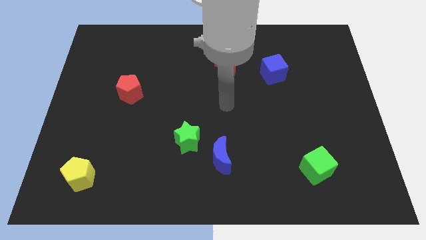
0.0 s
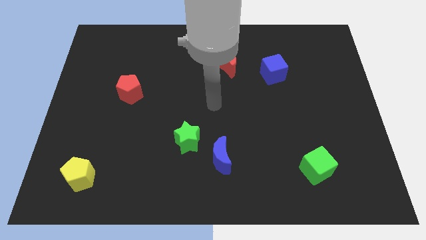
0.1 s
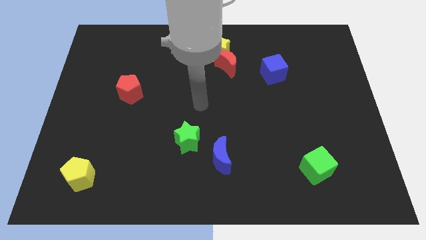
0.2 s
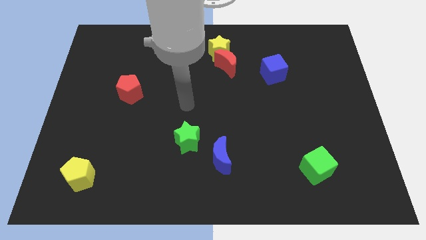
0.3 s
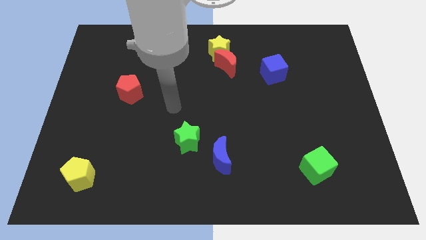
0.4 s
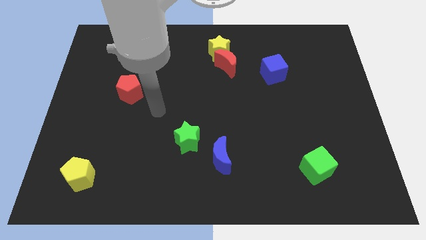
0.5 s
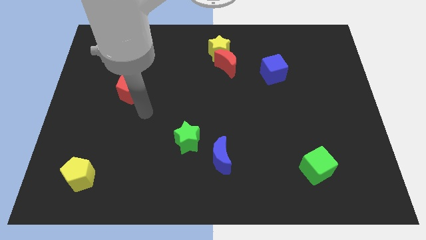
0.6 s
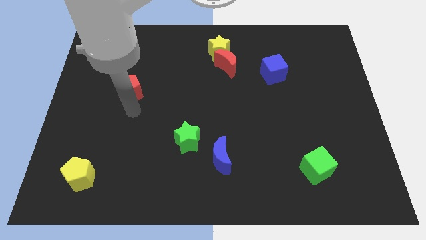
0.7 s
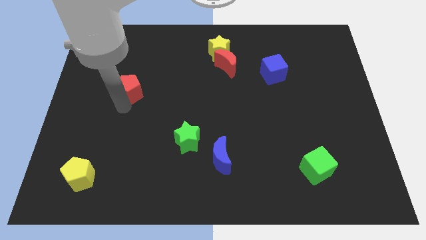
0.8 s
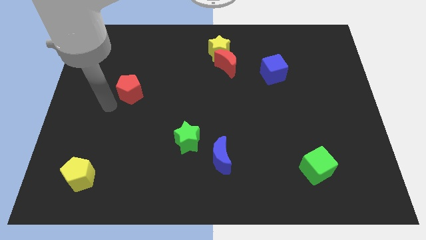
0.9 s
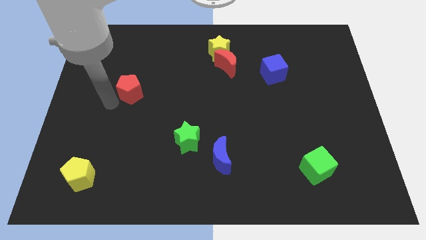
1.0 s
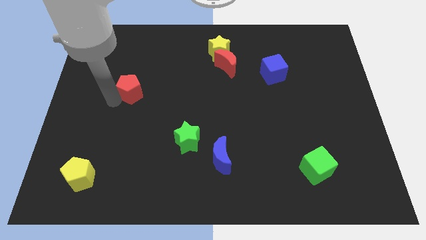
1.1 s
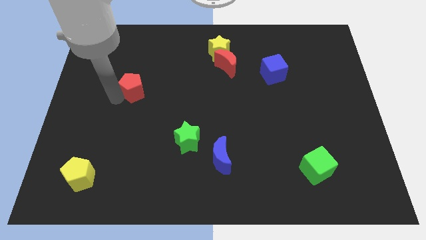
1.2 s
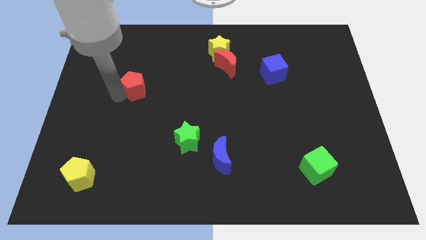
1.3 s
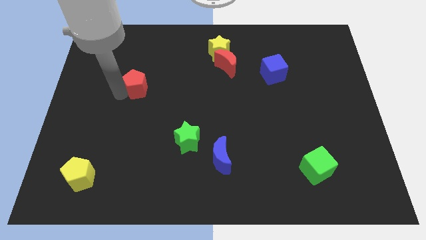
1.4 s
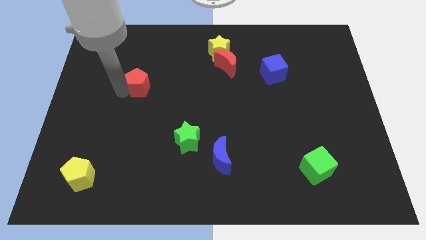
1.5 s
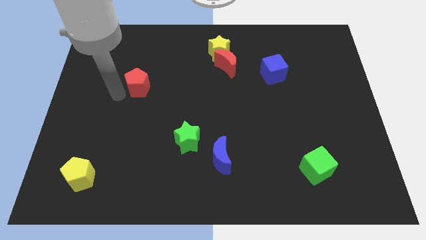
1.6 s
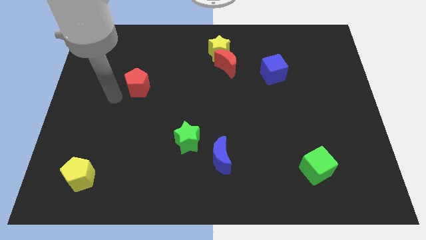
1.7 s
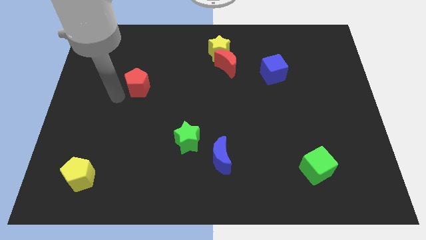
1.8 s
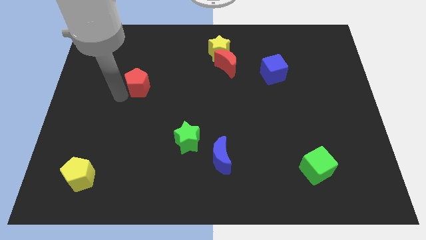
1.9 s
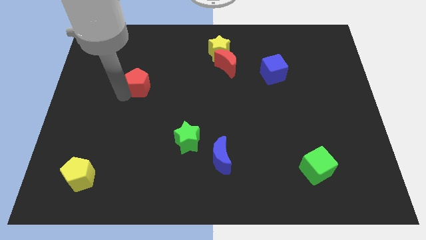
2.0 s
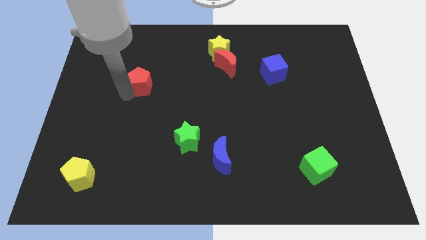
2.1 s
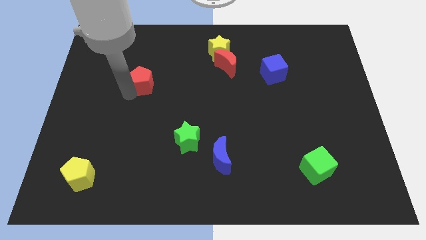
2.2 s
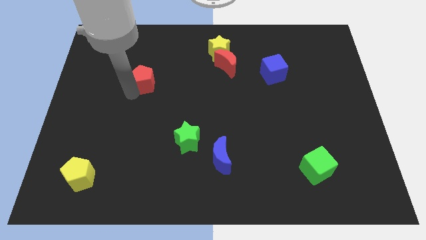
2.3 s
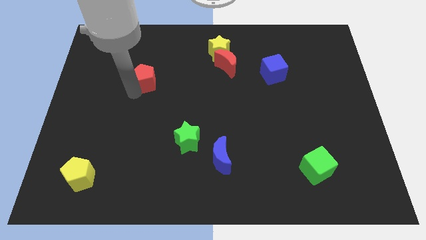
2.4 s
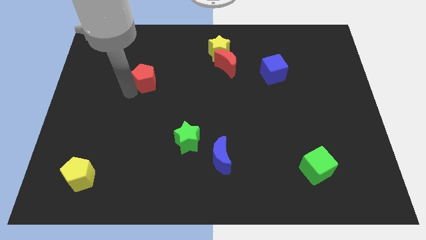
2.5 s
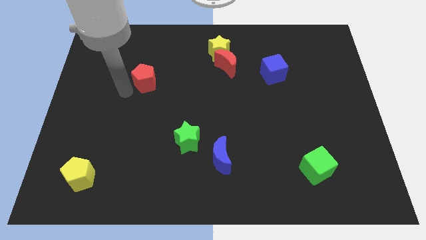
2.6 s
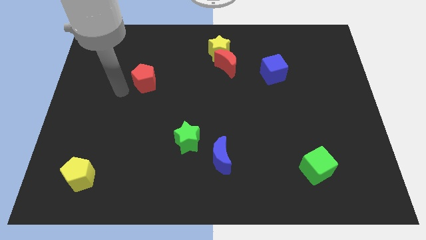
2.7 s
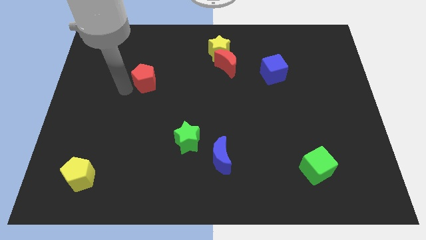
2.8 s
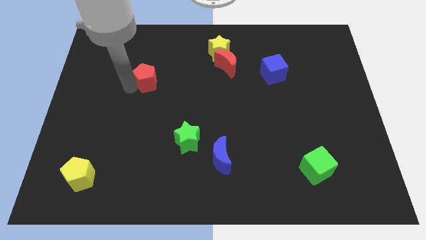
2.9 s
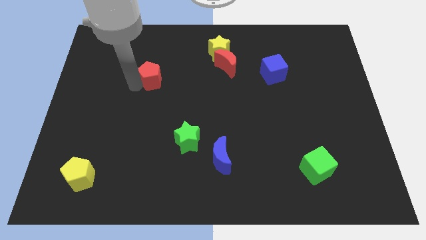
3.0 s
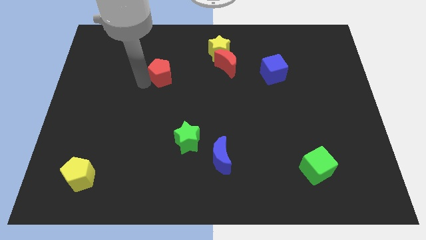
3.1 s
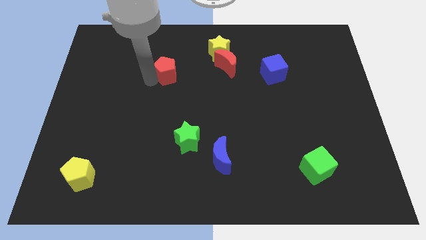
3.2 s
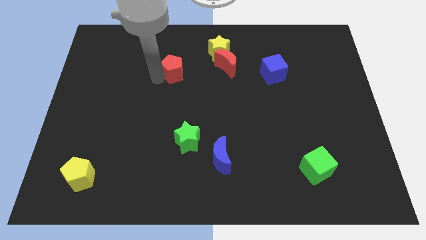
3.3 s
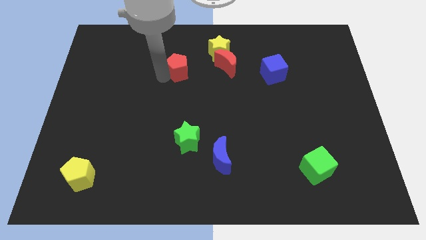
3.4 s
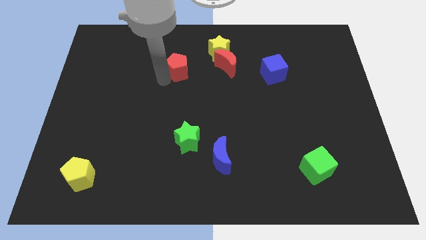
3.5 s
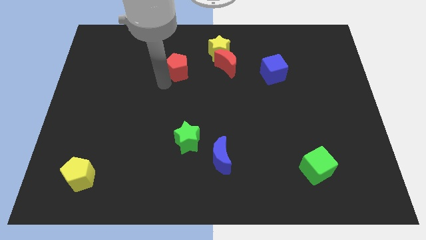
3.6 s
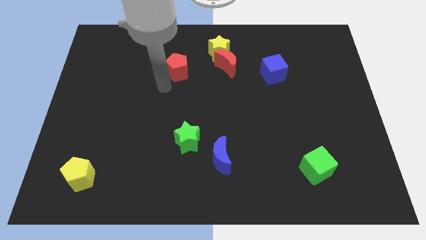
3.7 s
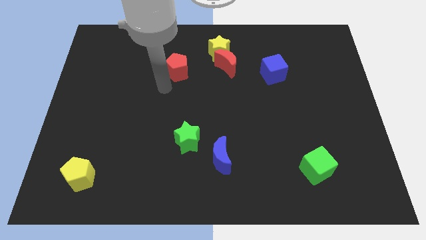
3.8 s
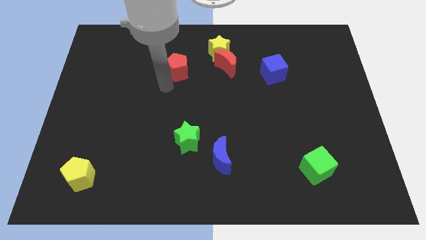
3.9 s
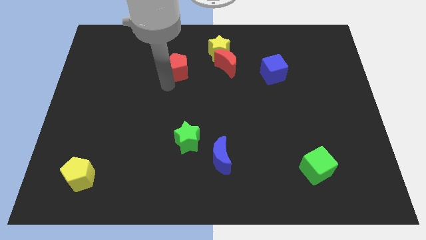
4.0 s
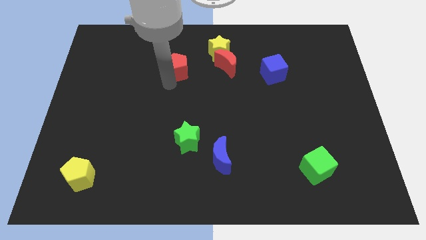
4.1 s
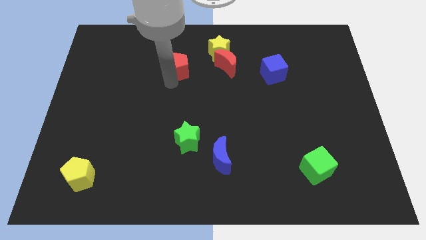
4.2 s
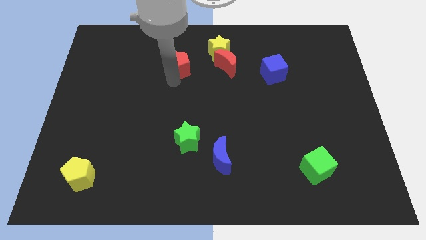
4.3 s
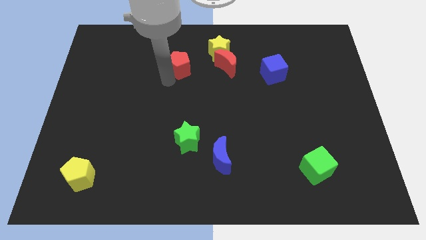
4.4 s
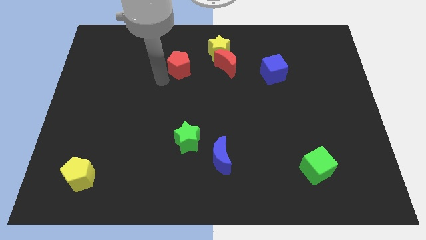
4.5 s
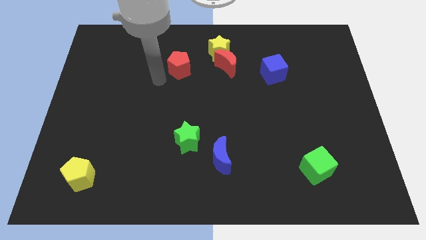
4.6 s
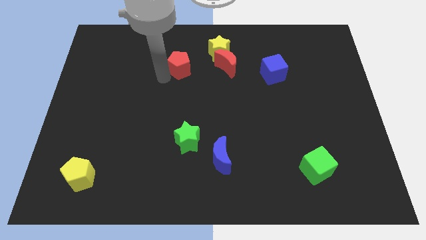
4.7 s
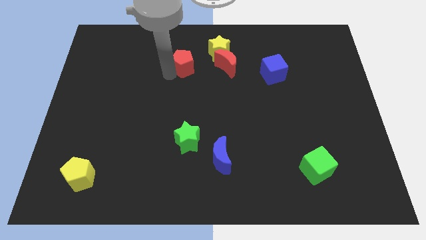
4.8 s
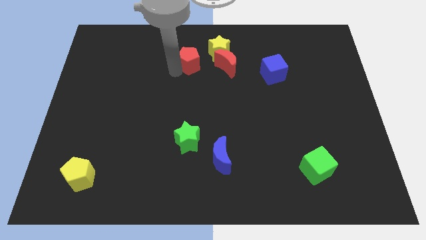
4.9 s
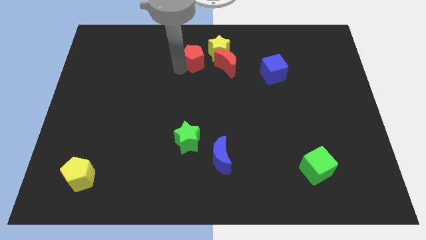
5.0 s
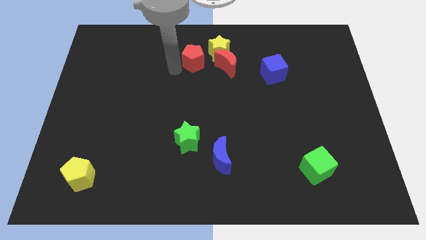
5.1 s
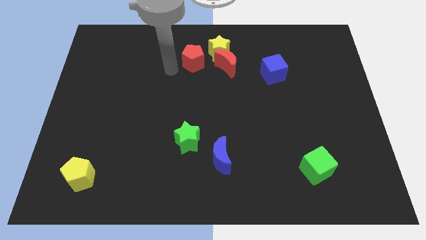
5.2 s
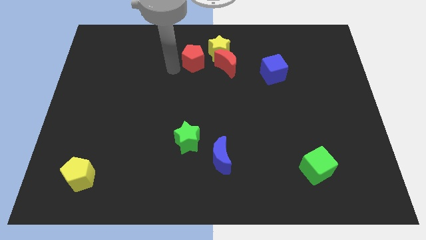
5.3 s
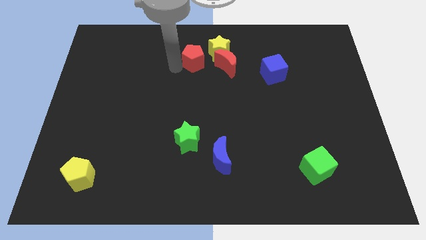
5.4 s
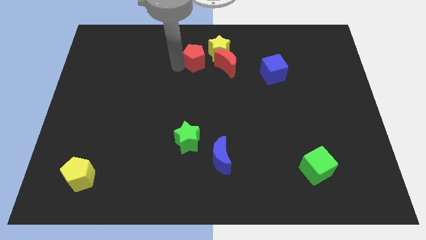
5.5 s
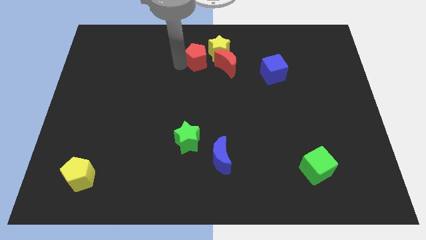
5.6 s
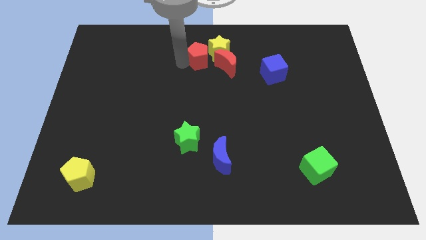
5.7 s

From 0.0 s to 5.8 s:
push the red pentagon towards the yellow star

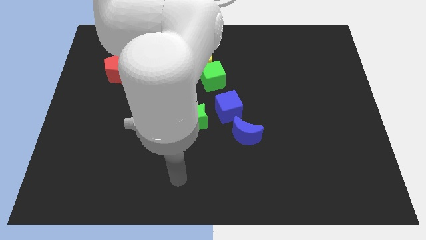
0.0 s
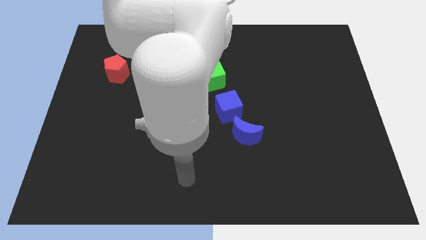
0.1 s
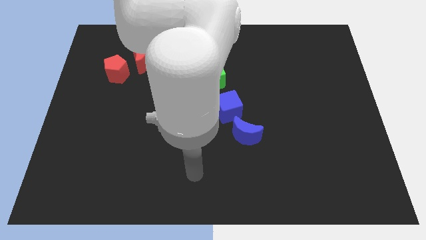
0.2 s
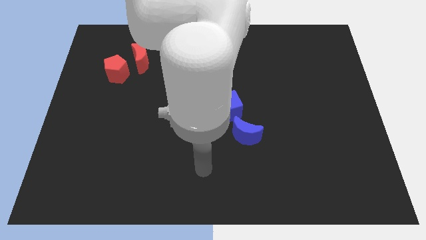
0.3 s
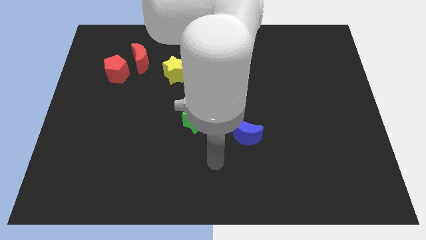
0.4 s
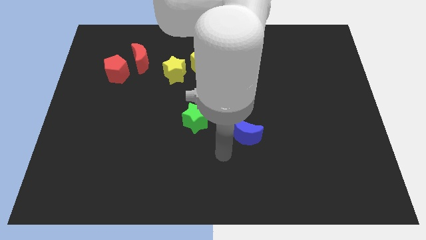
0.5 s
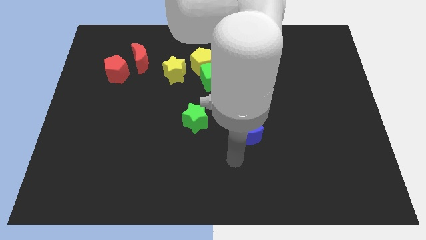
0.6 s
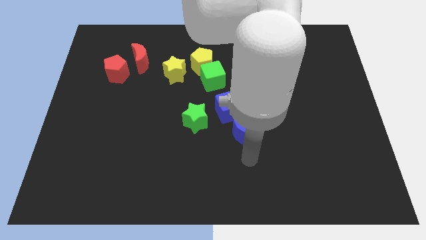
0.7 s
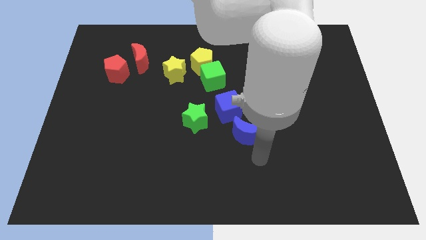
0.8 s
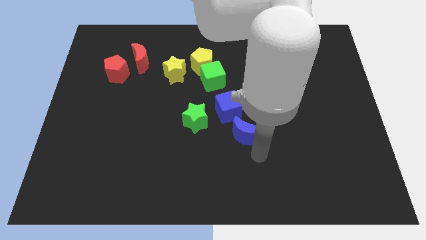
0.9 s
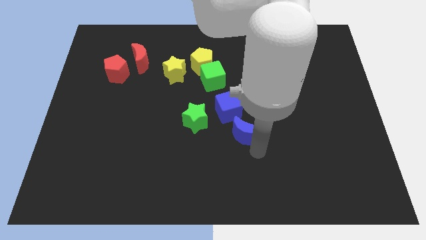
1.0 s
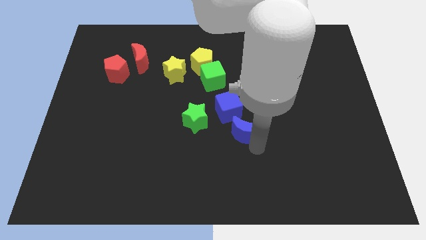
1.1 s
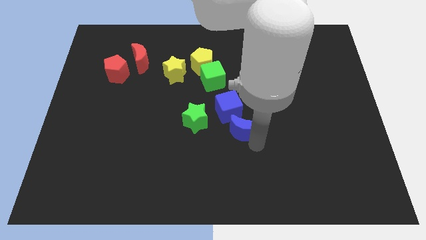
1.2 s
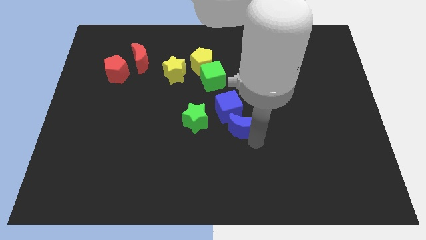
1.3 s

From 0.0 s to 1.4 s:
put the blue moon next to the blue cube
